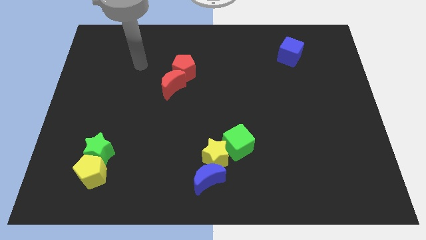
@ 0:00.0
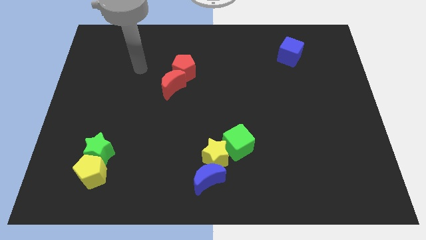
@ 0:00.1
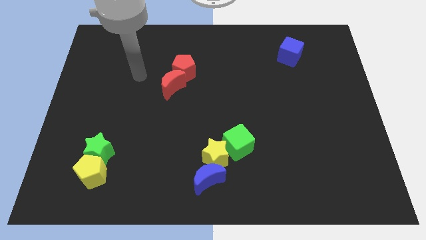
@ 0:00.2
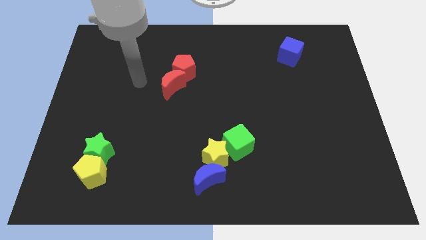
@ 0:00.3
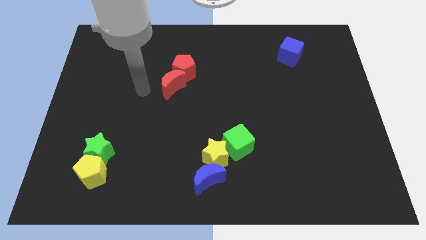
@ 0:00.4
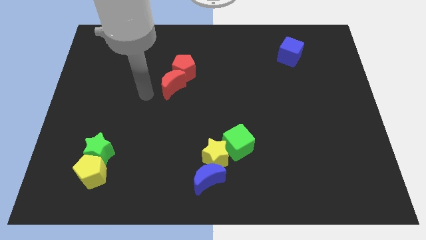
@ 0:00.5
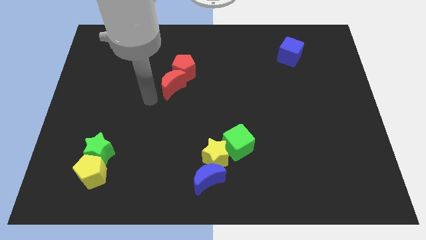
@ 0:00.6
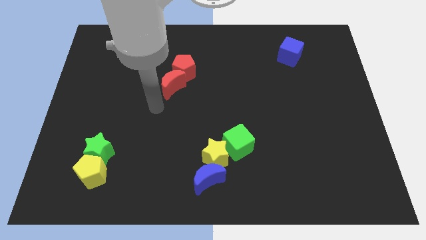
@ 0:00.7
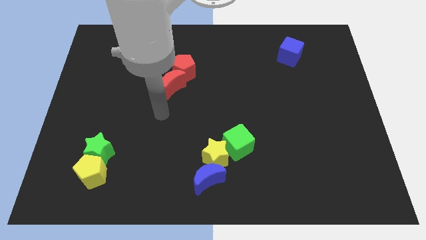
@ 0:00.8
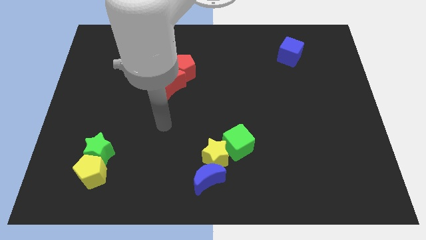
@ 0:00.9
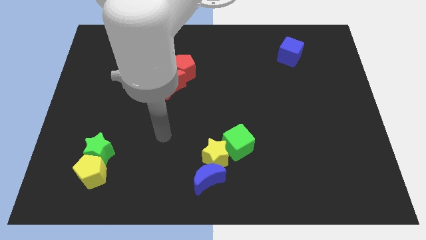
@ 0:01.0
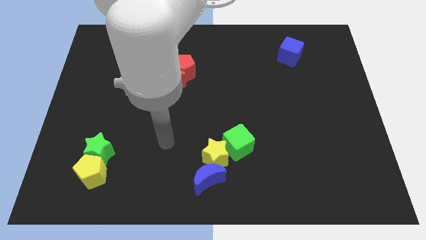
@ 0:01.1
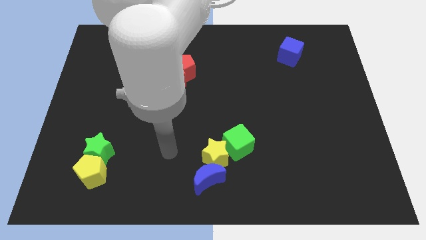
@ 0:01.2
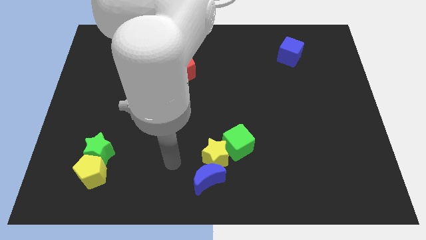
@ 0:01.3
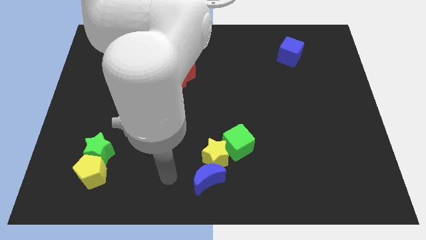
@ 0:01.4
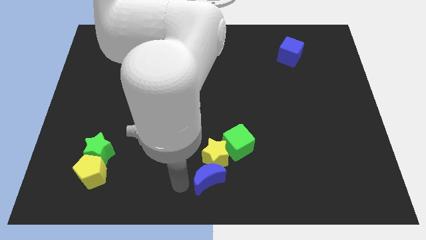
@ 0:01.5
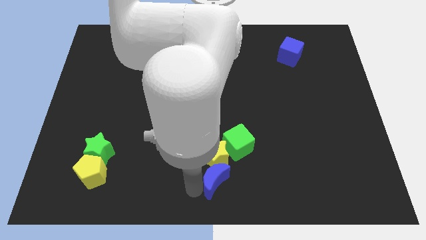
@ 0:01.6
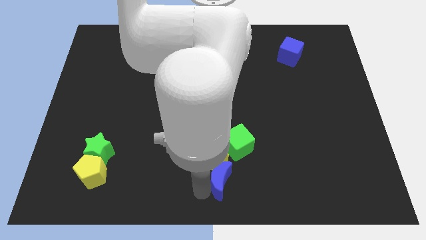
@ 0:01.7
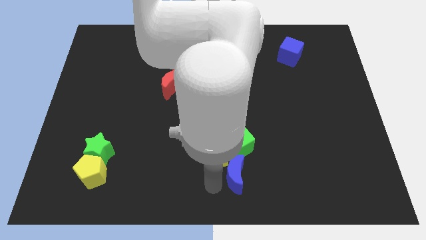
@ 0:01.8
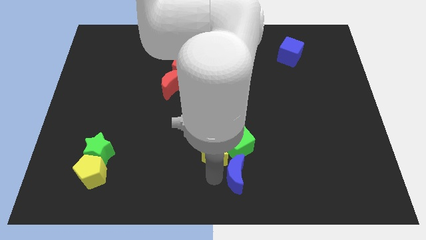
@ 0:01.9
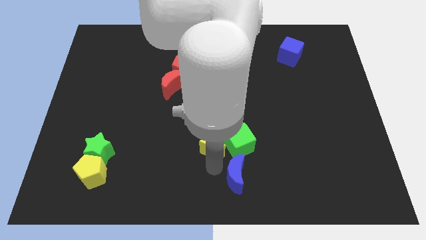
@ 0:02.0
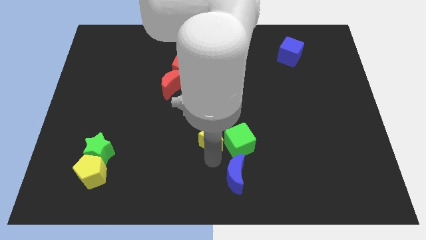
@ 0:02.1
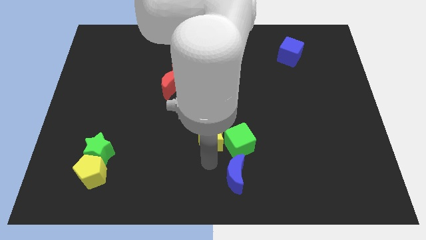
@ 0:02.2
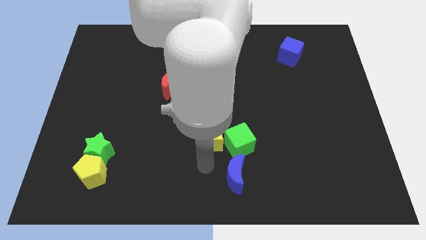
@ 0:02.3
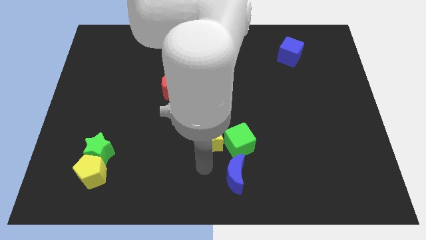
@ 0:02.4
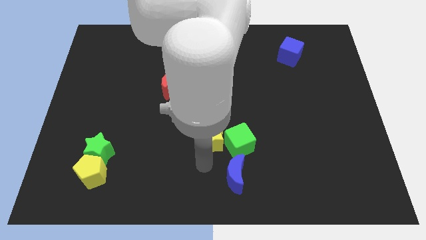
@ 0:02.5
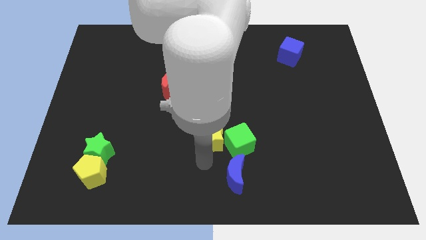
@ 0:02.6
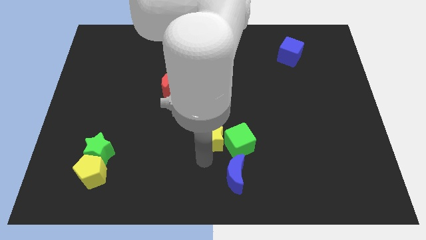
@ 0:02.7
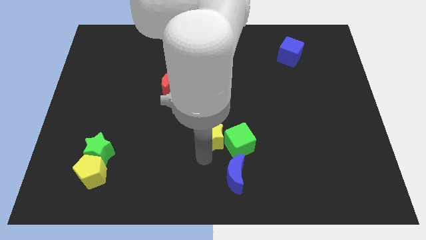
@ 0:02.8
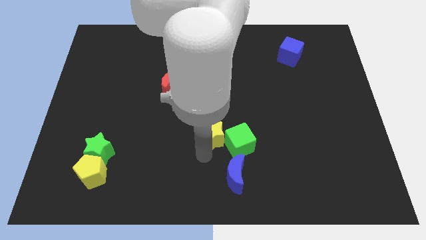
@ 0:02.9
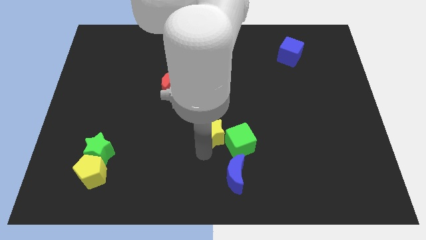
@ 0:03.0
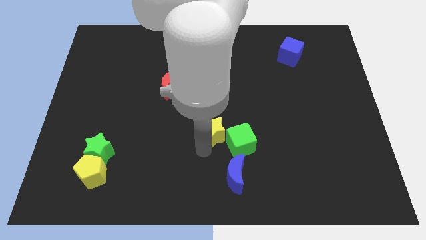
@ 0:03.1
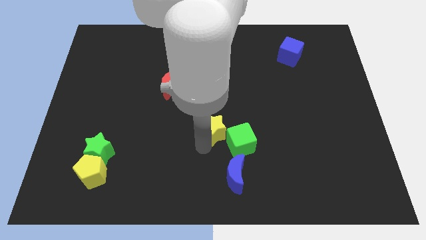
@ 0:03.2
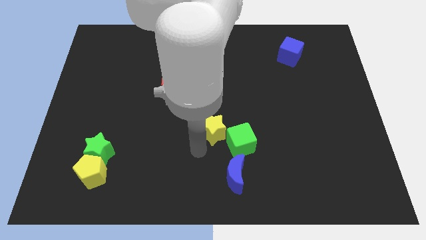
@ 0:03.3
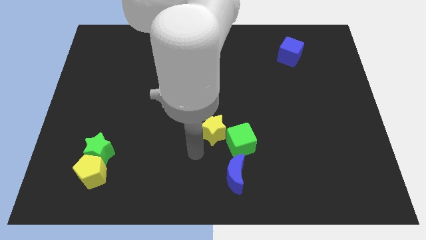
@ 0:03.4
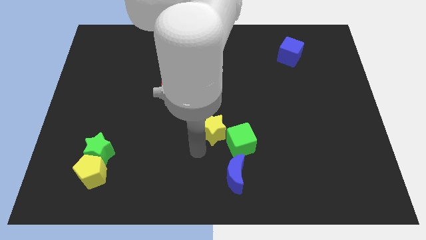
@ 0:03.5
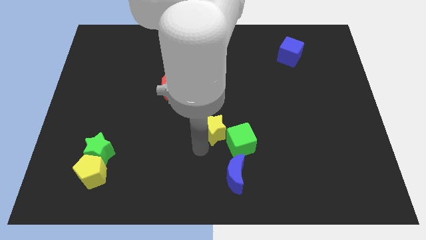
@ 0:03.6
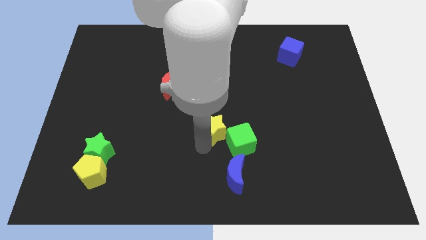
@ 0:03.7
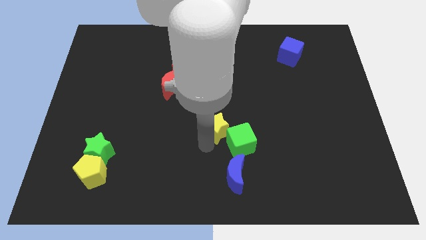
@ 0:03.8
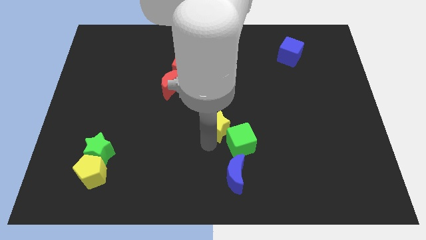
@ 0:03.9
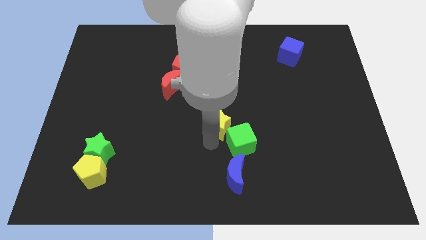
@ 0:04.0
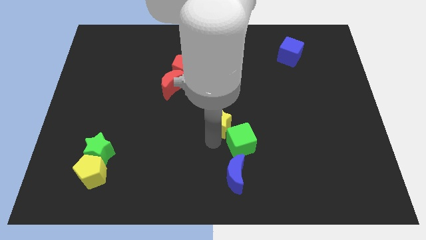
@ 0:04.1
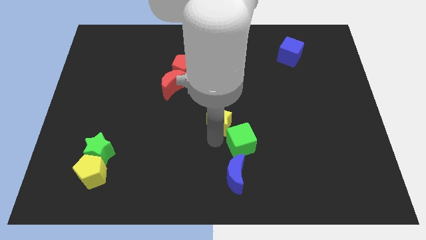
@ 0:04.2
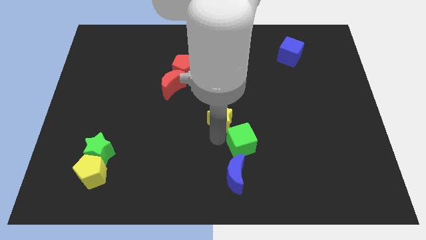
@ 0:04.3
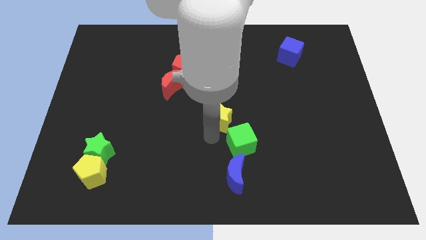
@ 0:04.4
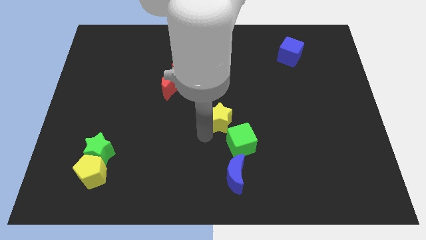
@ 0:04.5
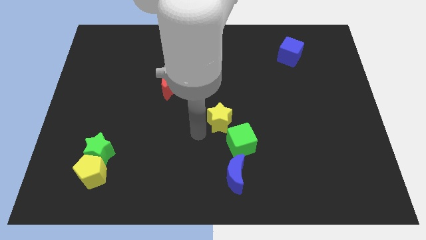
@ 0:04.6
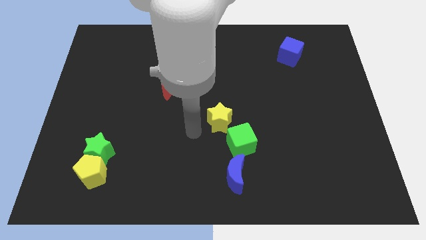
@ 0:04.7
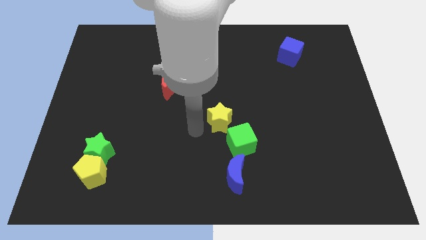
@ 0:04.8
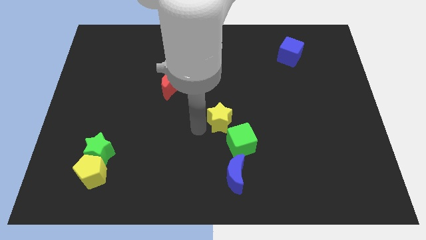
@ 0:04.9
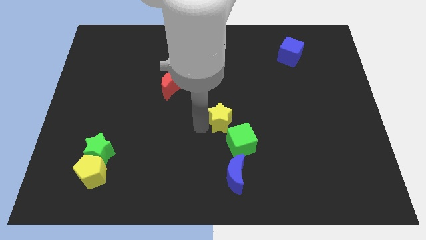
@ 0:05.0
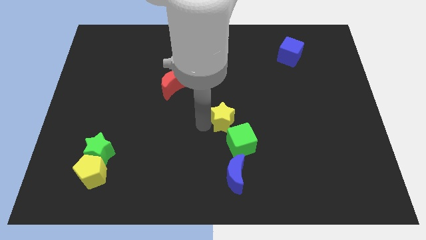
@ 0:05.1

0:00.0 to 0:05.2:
slide the yellow star up and right a little bit

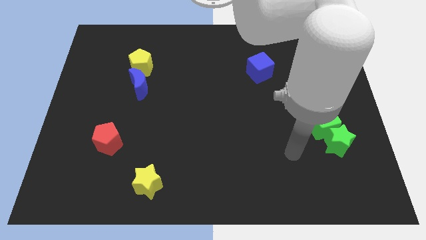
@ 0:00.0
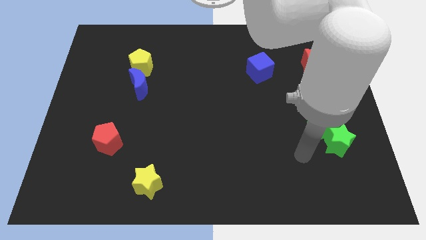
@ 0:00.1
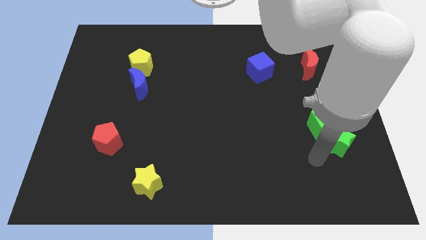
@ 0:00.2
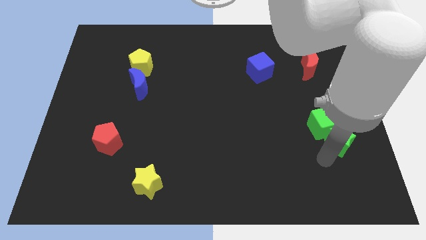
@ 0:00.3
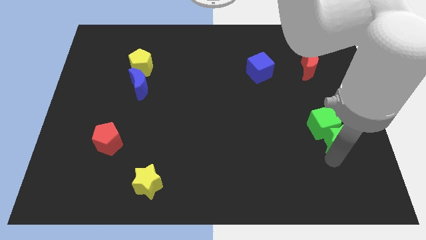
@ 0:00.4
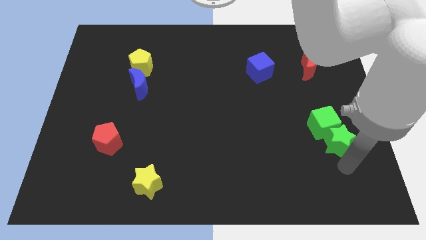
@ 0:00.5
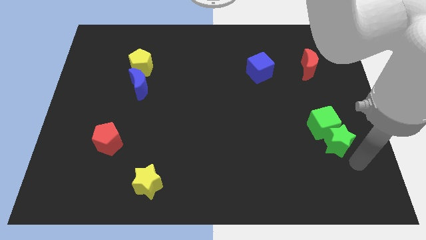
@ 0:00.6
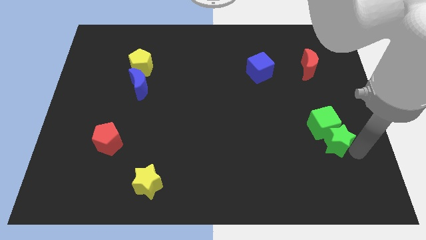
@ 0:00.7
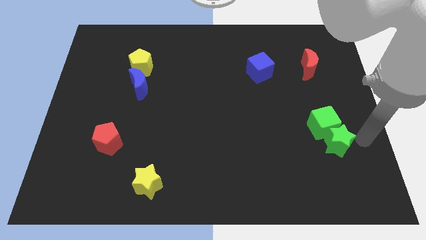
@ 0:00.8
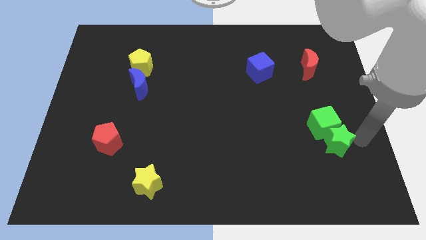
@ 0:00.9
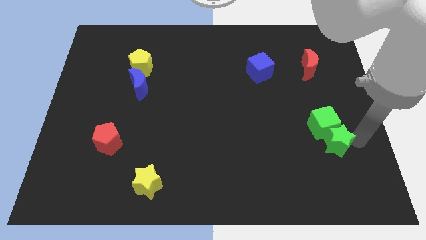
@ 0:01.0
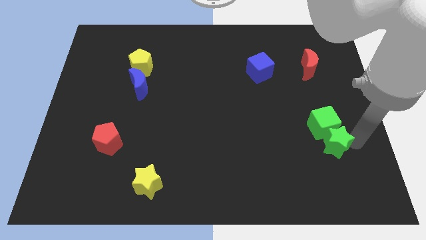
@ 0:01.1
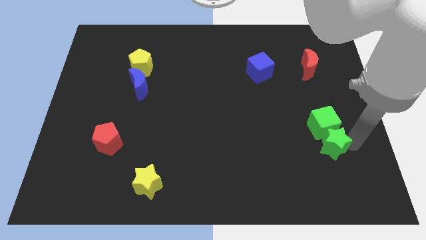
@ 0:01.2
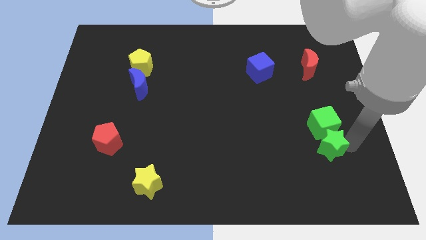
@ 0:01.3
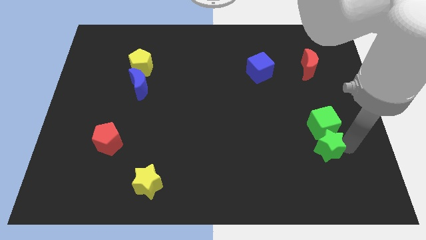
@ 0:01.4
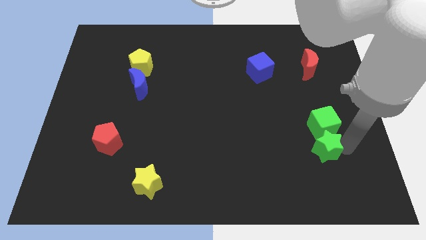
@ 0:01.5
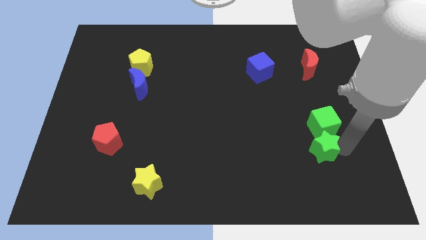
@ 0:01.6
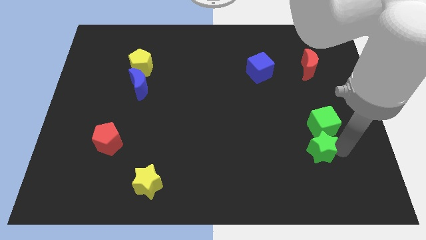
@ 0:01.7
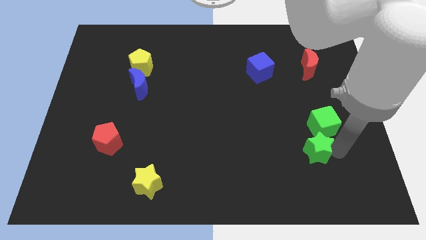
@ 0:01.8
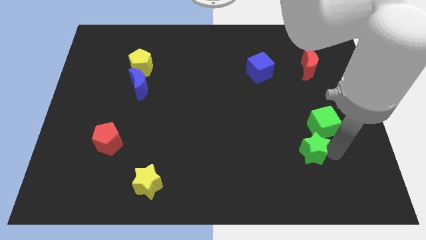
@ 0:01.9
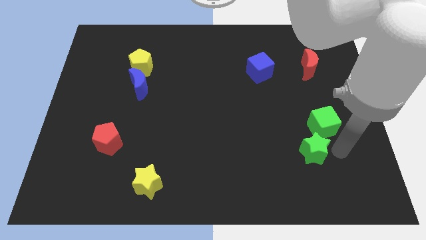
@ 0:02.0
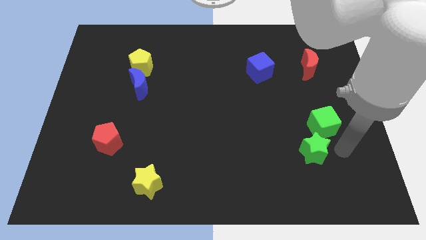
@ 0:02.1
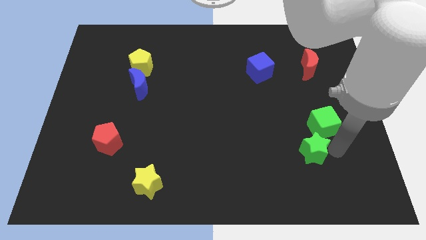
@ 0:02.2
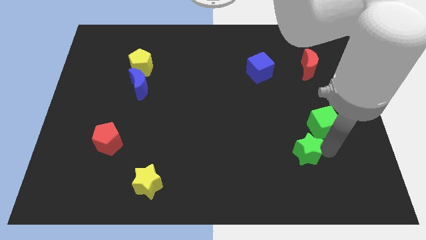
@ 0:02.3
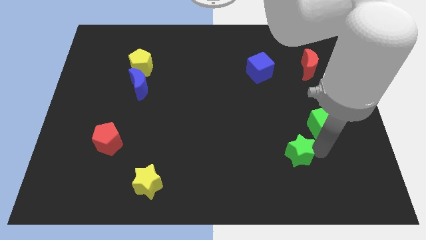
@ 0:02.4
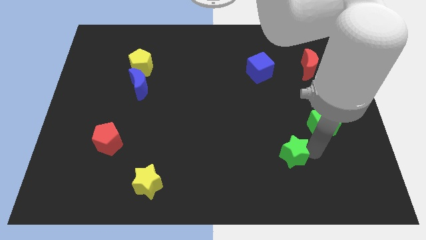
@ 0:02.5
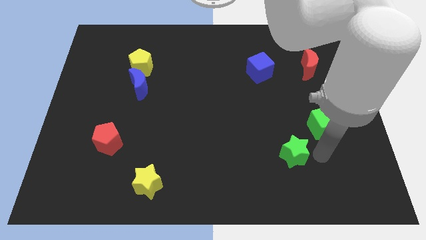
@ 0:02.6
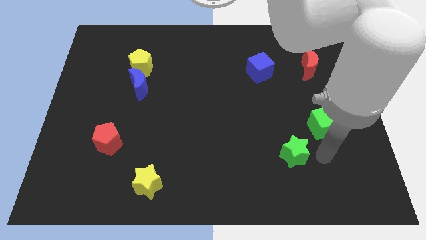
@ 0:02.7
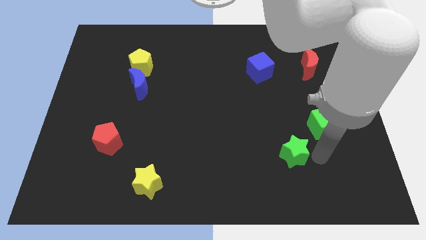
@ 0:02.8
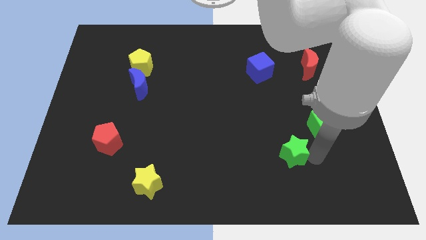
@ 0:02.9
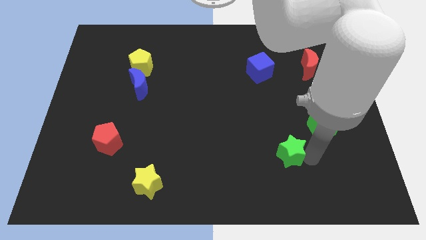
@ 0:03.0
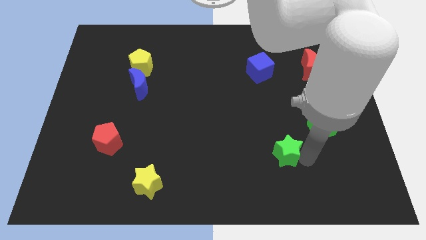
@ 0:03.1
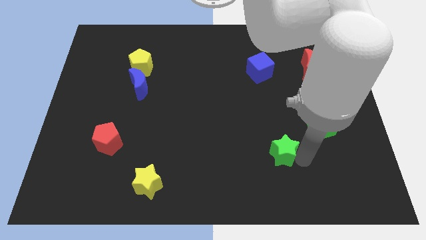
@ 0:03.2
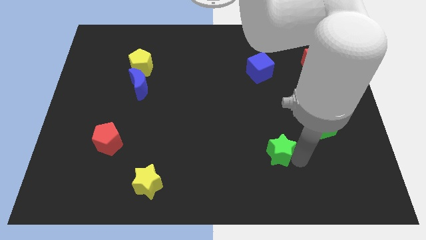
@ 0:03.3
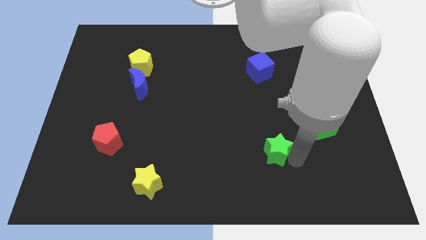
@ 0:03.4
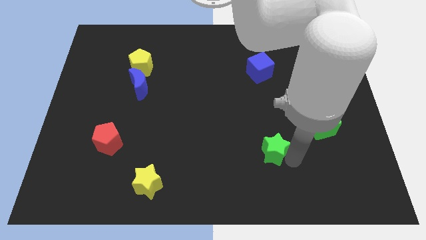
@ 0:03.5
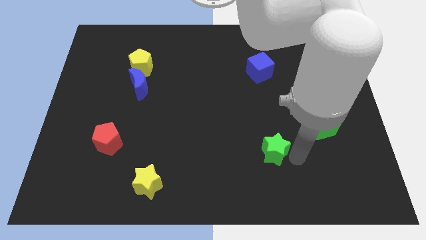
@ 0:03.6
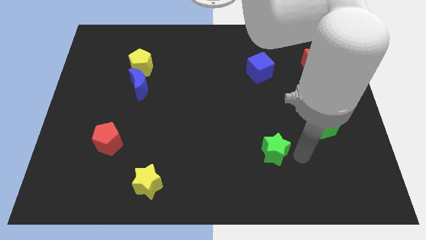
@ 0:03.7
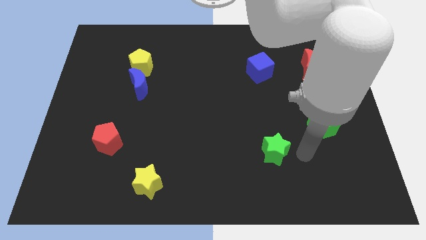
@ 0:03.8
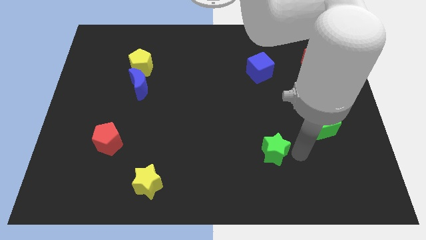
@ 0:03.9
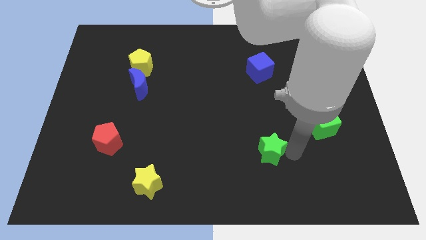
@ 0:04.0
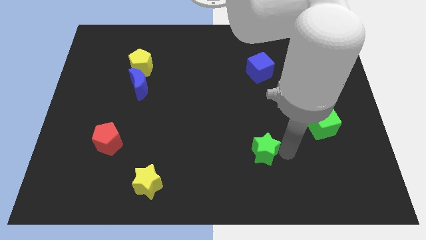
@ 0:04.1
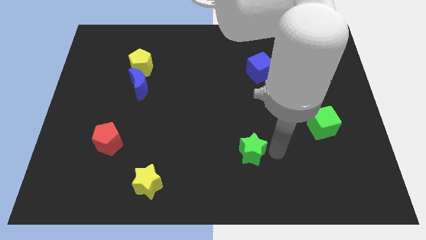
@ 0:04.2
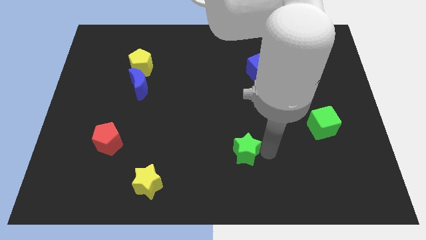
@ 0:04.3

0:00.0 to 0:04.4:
slide the green star left
